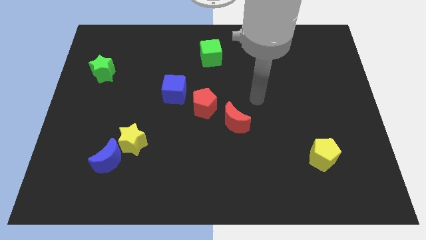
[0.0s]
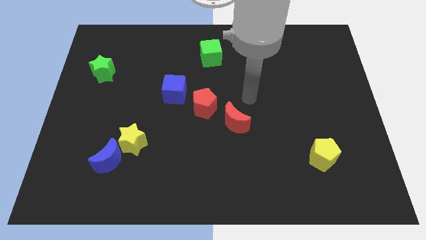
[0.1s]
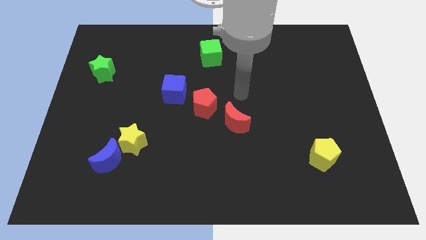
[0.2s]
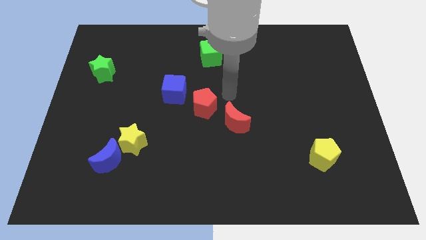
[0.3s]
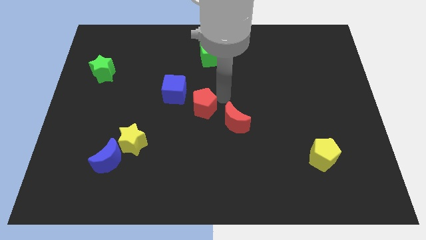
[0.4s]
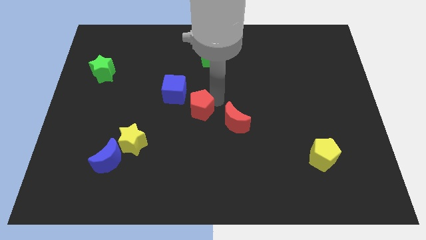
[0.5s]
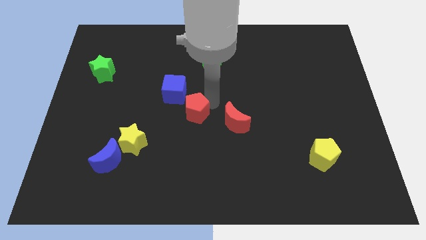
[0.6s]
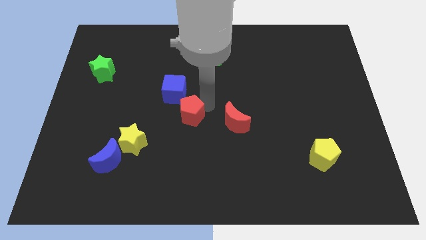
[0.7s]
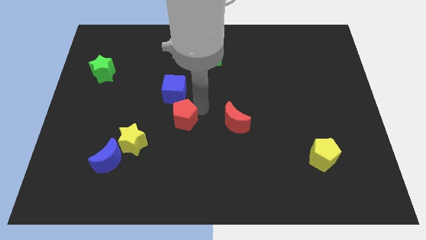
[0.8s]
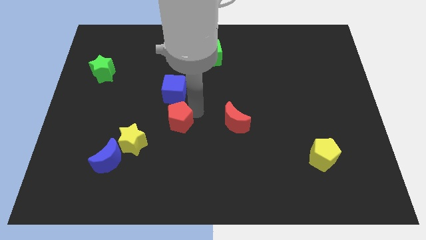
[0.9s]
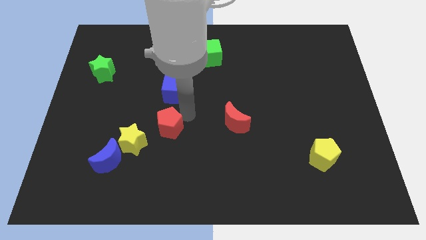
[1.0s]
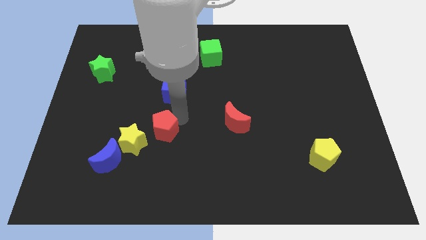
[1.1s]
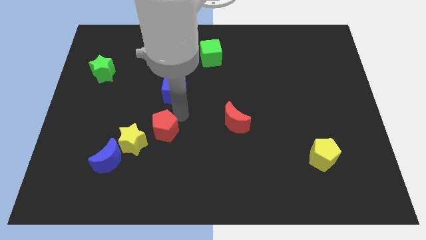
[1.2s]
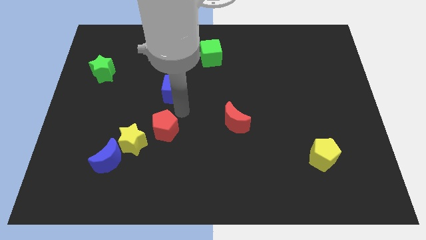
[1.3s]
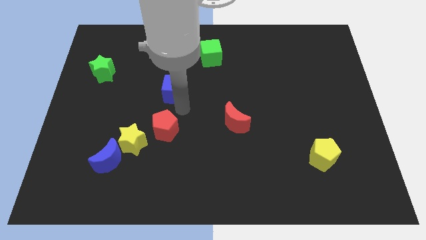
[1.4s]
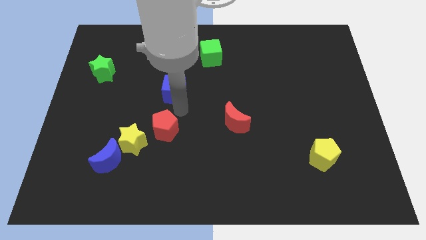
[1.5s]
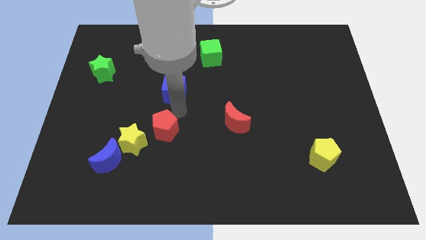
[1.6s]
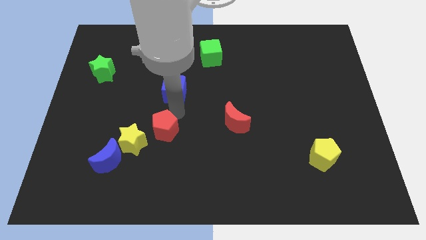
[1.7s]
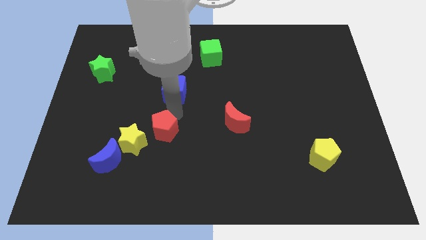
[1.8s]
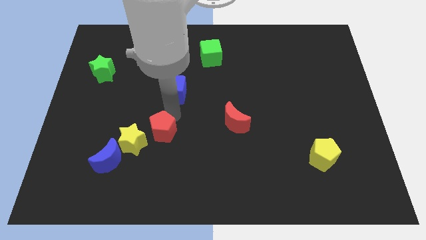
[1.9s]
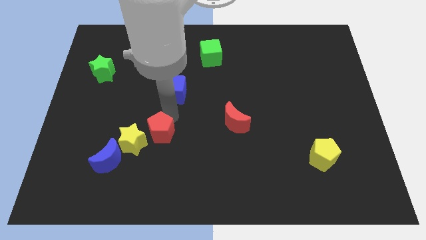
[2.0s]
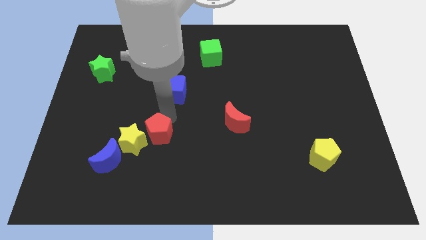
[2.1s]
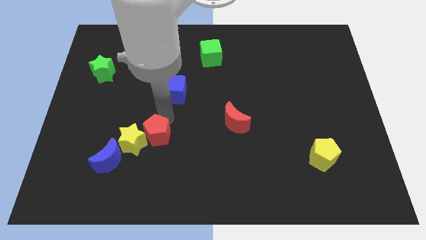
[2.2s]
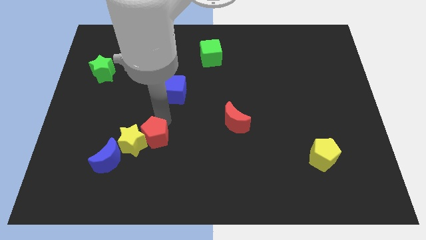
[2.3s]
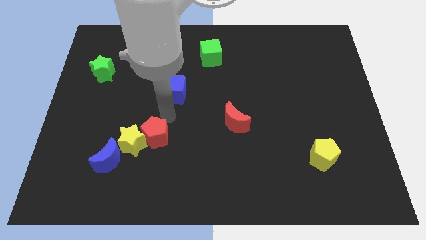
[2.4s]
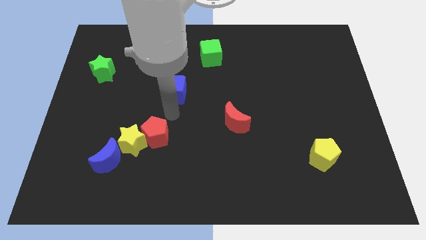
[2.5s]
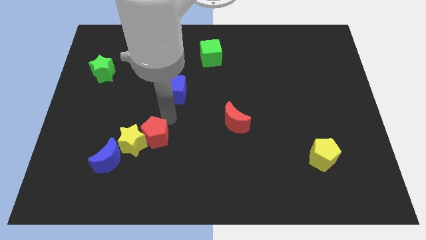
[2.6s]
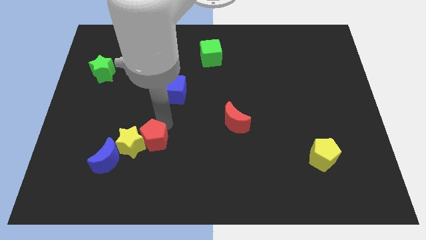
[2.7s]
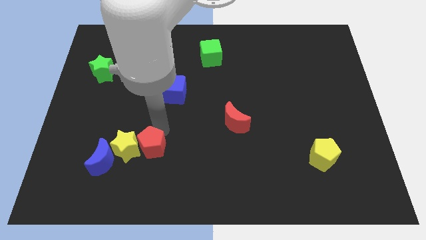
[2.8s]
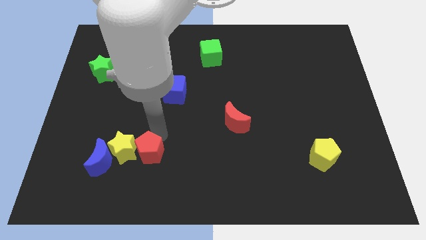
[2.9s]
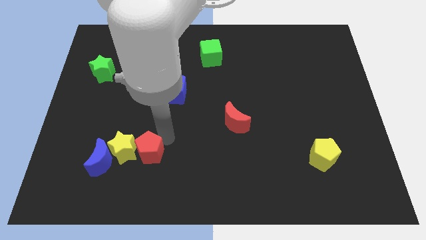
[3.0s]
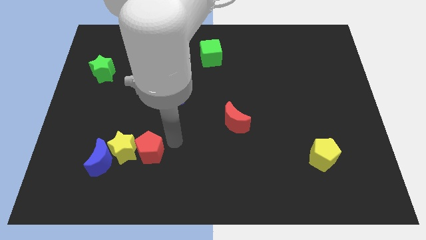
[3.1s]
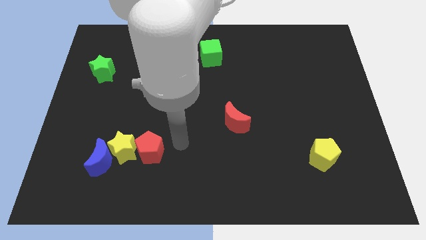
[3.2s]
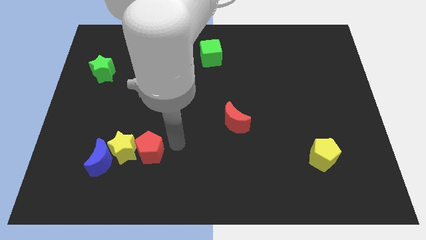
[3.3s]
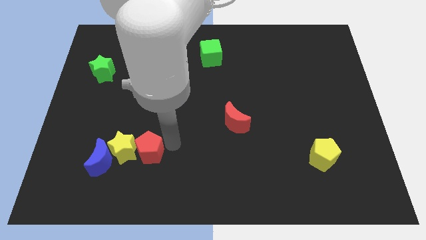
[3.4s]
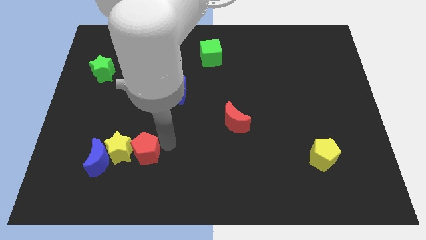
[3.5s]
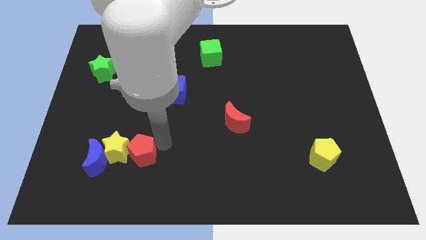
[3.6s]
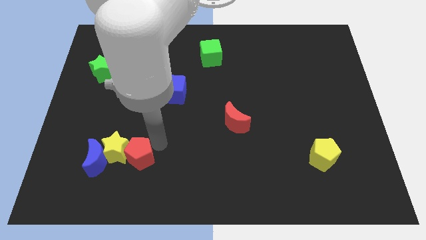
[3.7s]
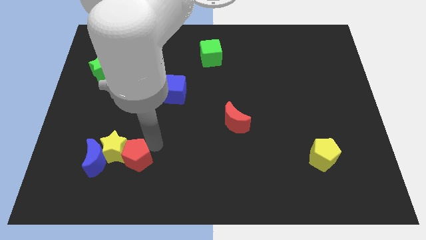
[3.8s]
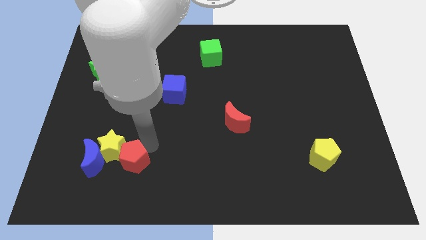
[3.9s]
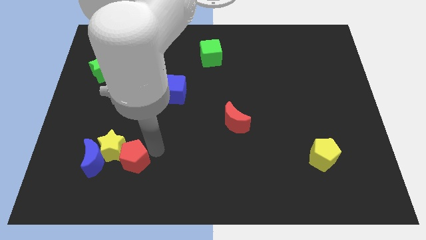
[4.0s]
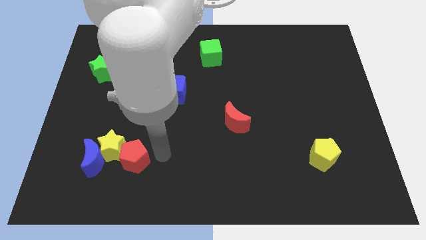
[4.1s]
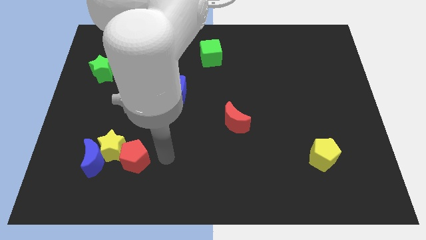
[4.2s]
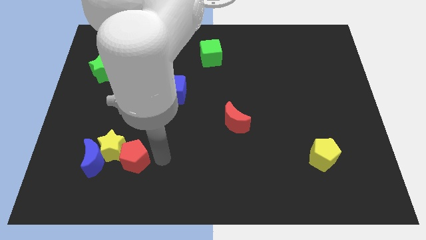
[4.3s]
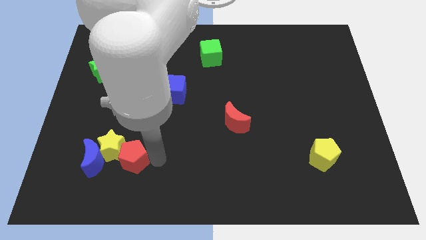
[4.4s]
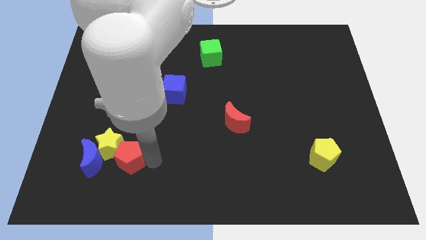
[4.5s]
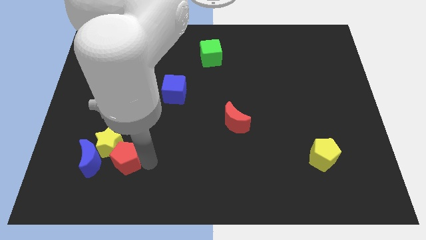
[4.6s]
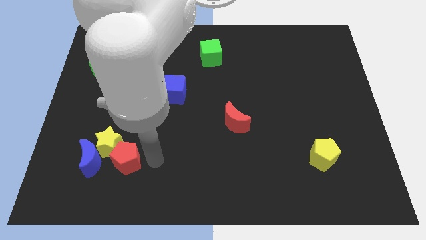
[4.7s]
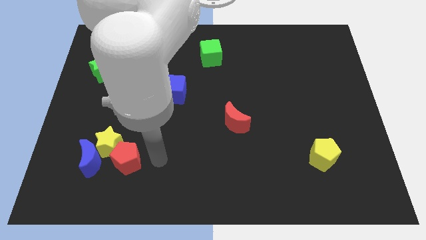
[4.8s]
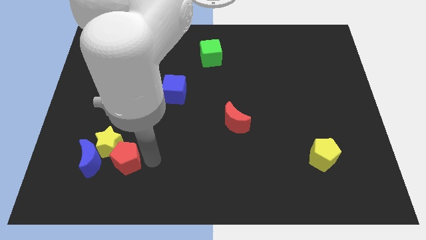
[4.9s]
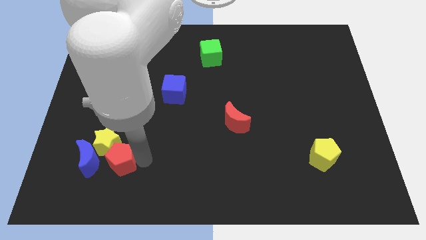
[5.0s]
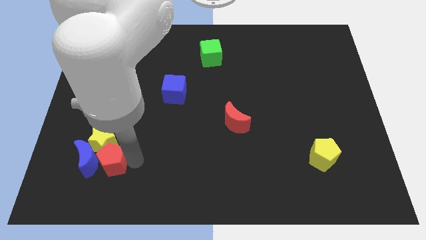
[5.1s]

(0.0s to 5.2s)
move the red pentagon close to the blue moon

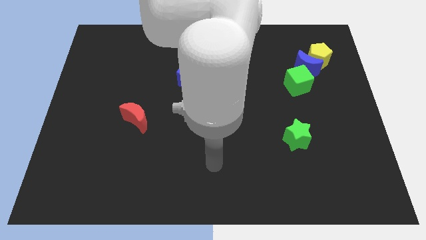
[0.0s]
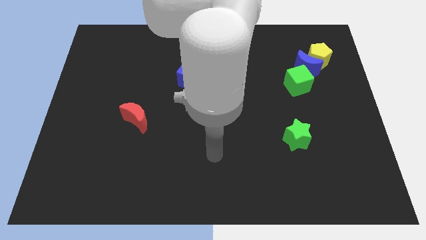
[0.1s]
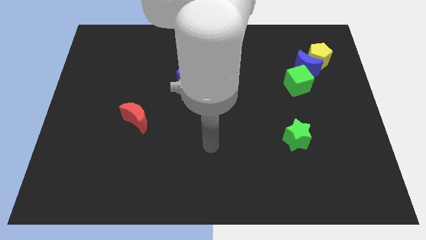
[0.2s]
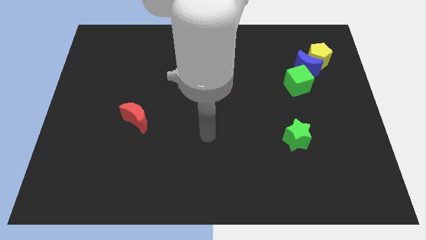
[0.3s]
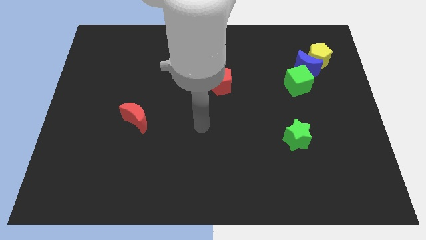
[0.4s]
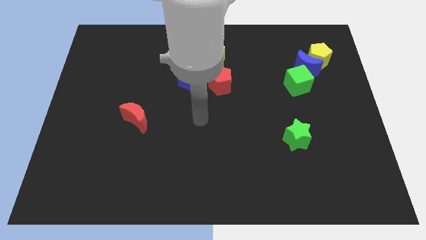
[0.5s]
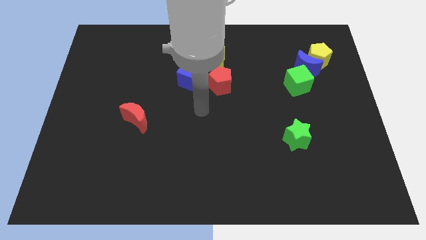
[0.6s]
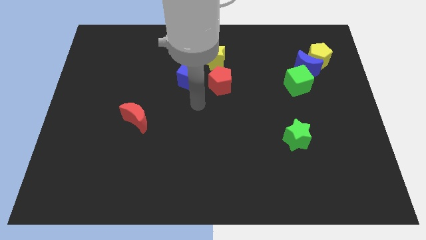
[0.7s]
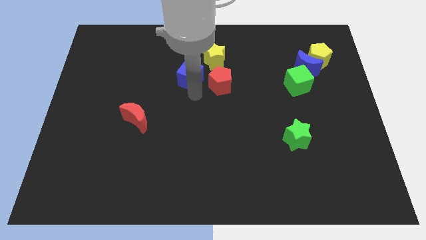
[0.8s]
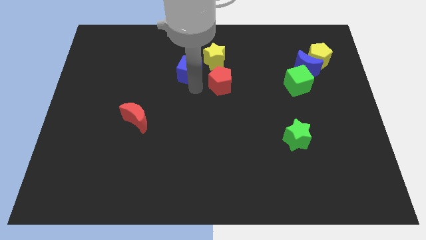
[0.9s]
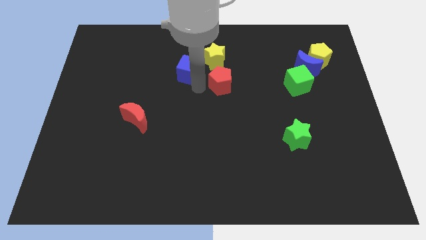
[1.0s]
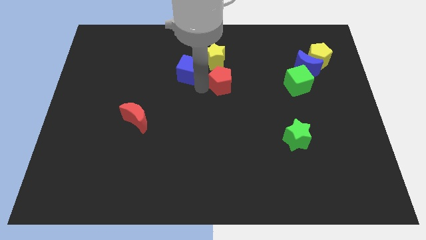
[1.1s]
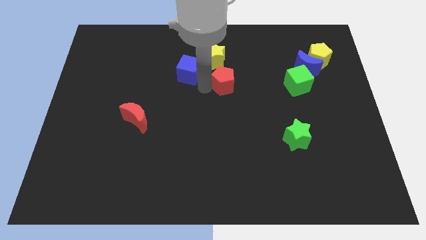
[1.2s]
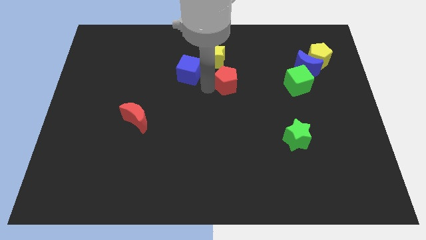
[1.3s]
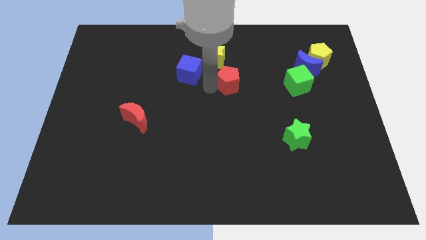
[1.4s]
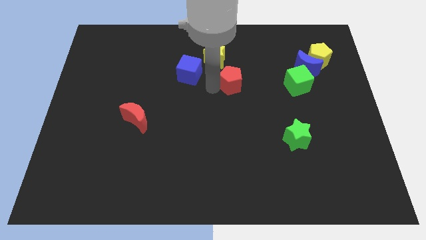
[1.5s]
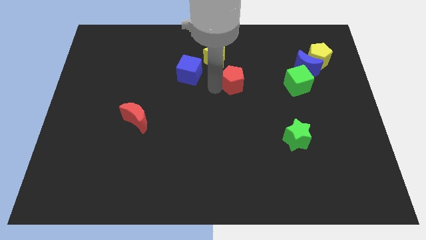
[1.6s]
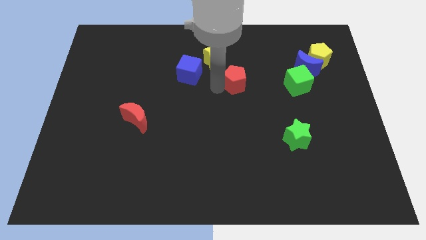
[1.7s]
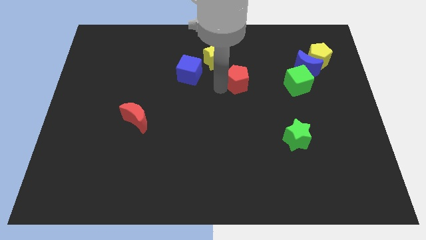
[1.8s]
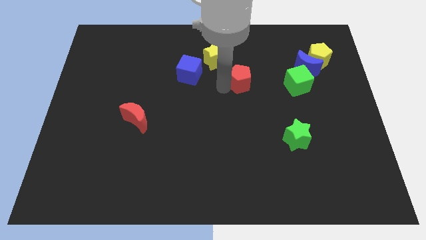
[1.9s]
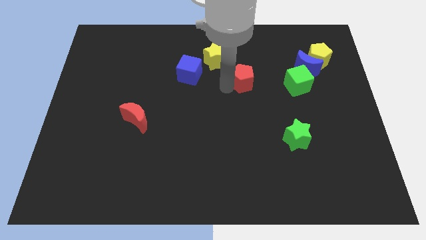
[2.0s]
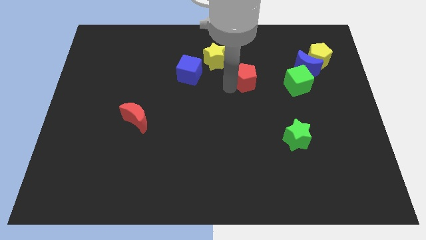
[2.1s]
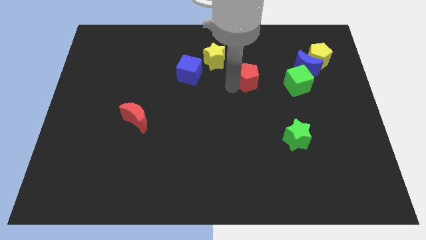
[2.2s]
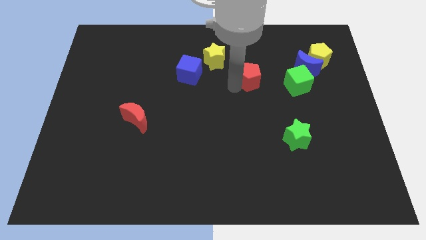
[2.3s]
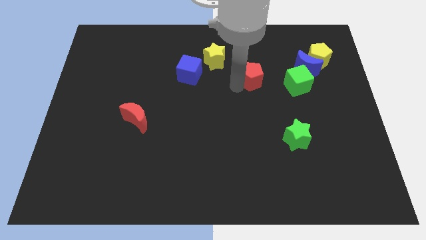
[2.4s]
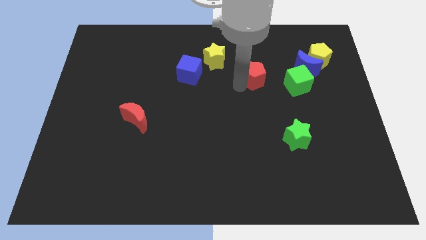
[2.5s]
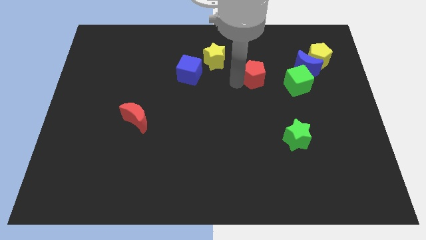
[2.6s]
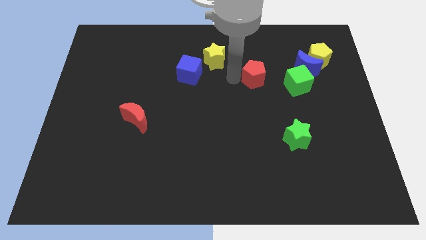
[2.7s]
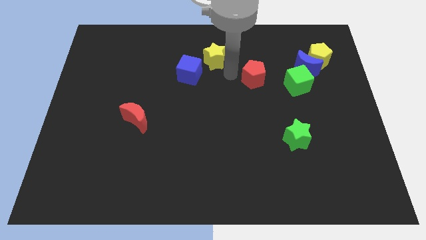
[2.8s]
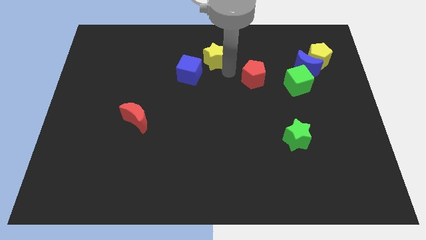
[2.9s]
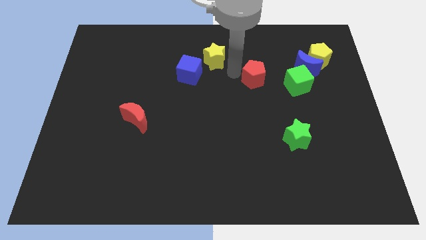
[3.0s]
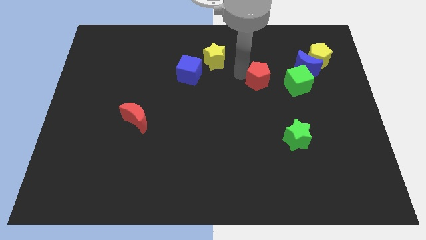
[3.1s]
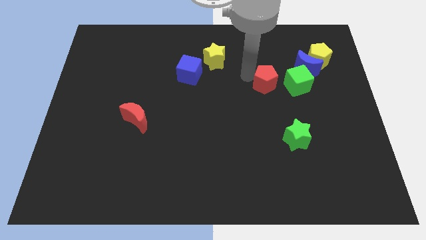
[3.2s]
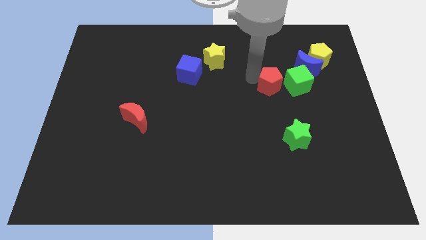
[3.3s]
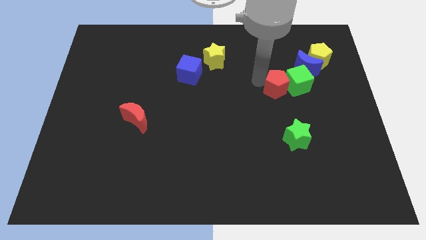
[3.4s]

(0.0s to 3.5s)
push the red pentagon towards the green cube
